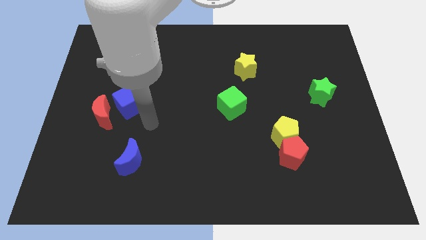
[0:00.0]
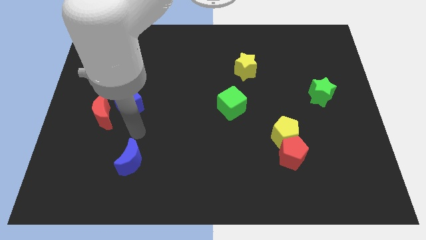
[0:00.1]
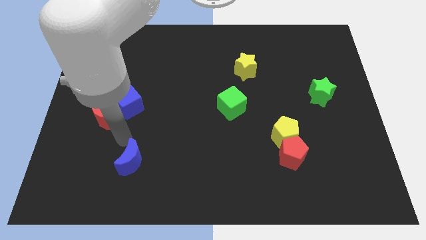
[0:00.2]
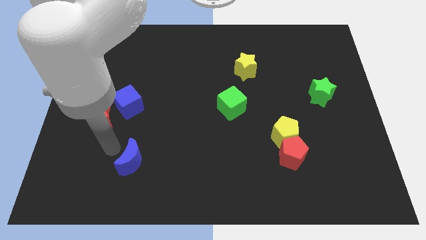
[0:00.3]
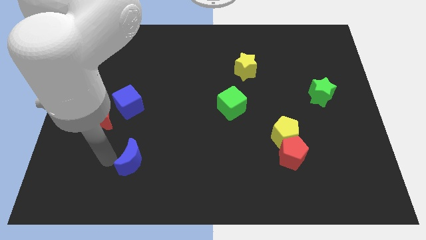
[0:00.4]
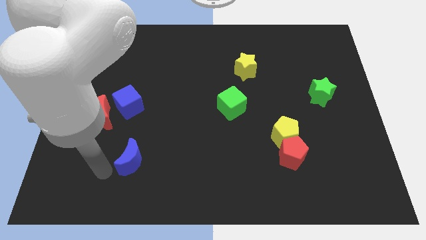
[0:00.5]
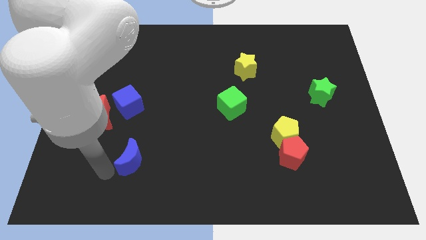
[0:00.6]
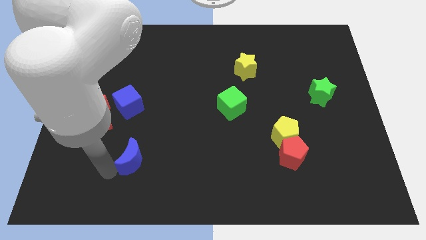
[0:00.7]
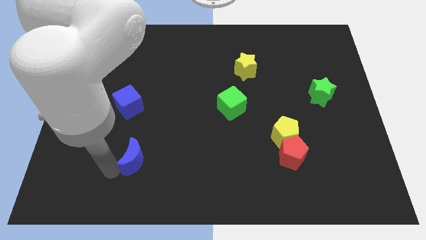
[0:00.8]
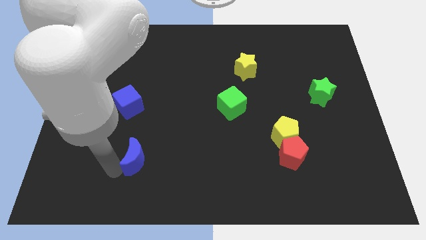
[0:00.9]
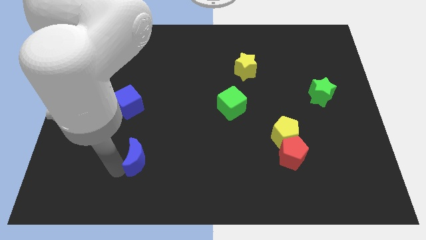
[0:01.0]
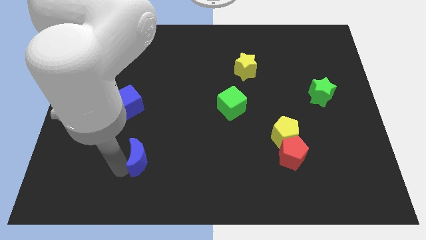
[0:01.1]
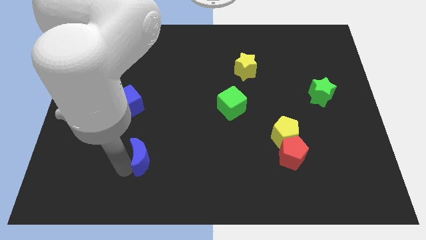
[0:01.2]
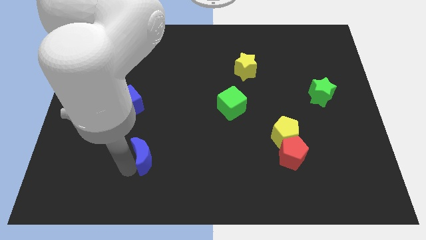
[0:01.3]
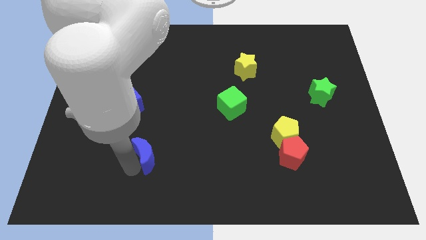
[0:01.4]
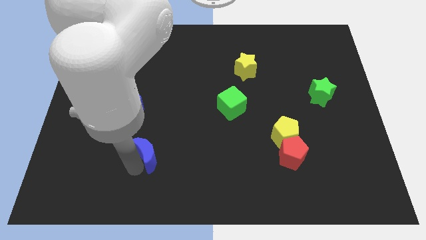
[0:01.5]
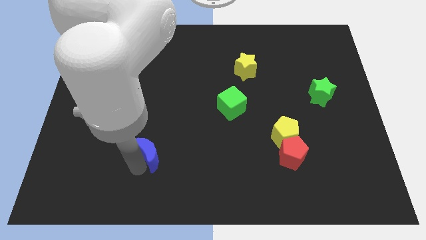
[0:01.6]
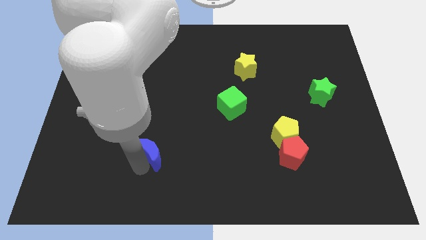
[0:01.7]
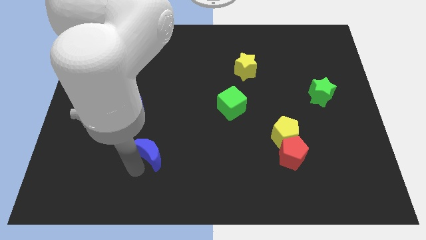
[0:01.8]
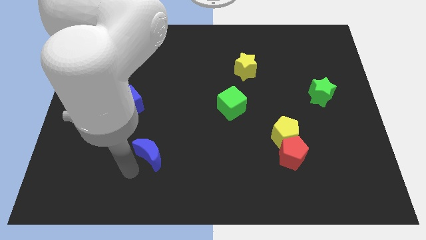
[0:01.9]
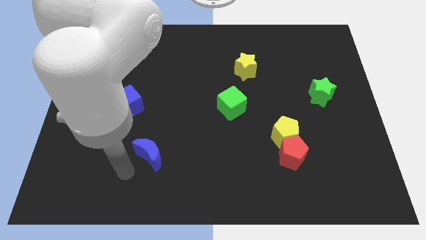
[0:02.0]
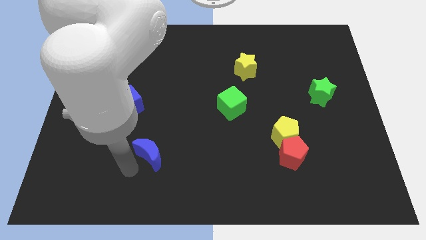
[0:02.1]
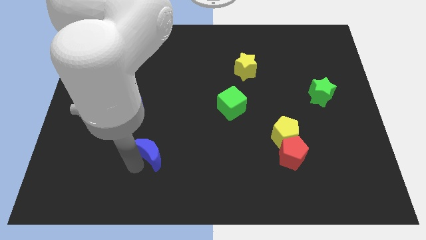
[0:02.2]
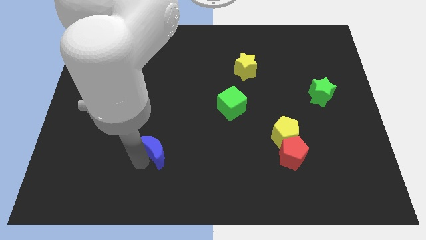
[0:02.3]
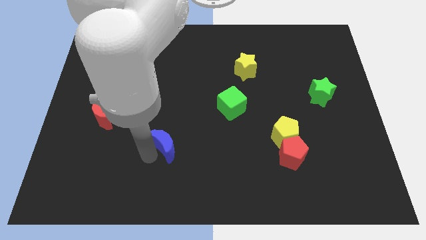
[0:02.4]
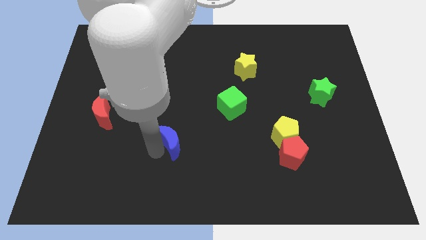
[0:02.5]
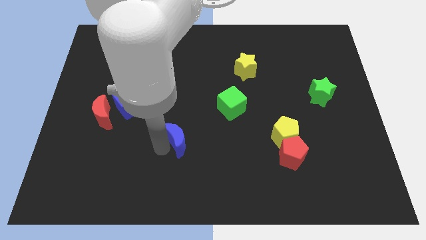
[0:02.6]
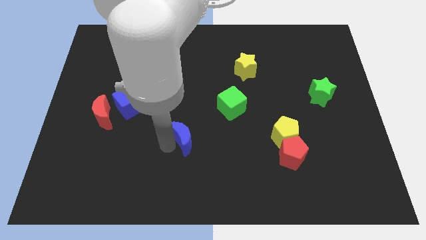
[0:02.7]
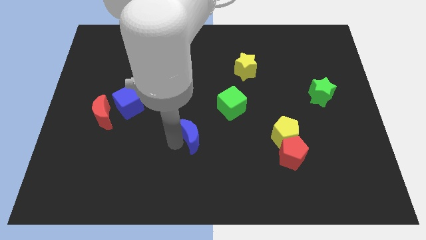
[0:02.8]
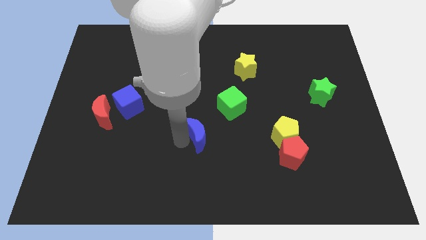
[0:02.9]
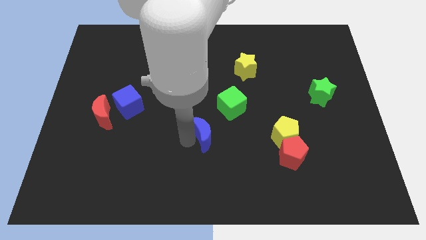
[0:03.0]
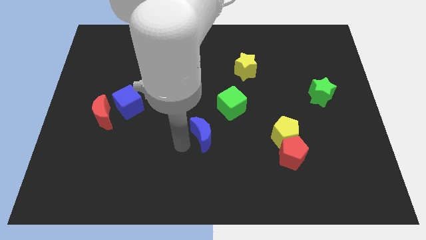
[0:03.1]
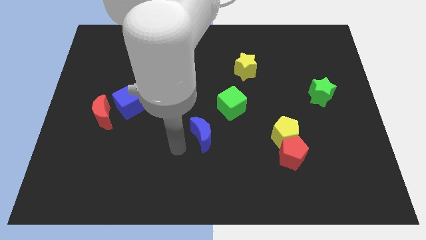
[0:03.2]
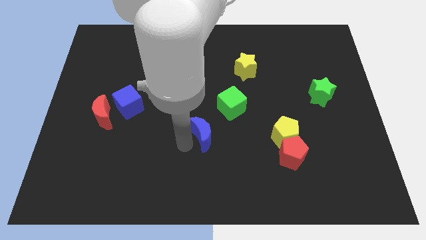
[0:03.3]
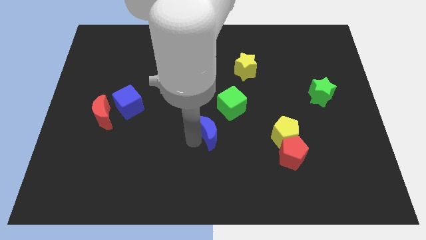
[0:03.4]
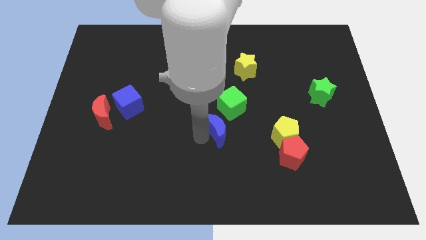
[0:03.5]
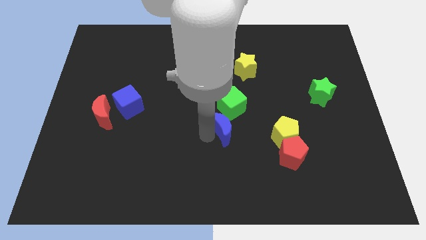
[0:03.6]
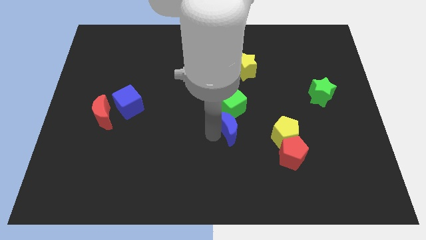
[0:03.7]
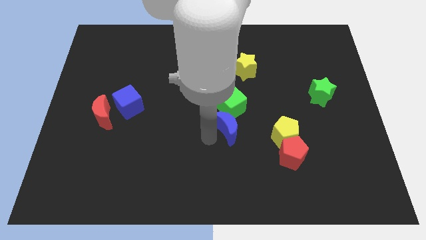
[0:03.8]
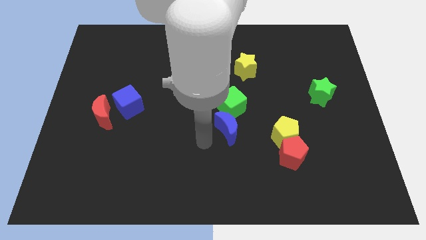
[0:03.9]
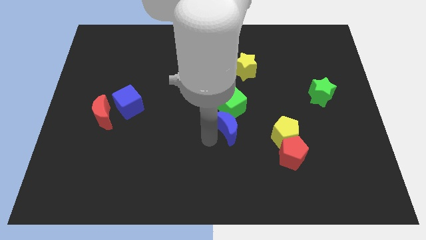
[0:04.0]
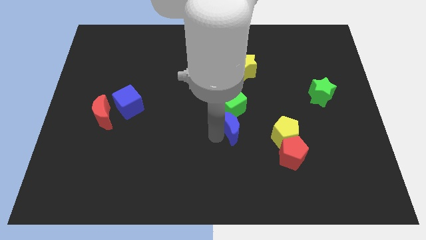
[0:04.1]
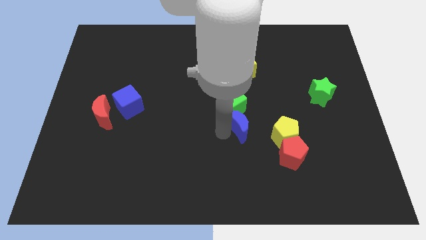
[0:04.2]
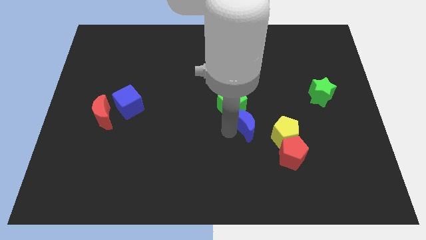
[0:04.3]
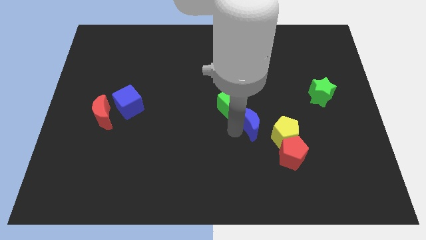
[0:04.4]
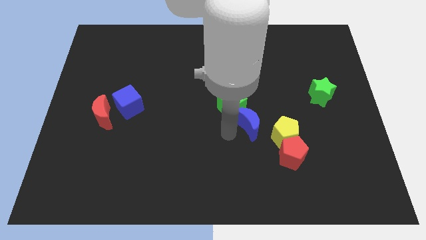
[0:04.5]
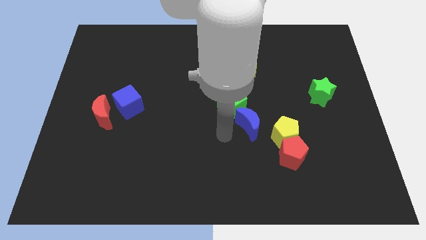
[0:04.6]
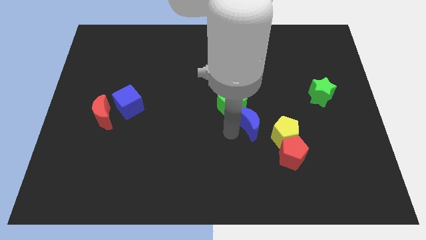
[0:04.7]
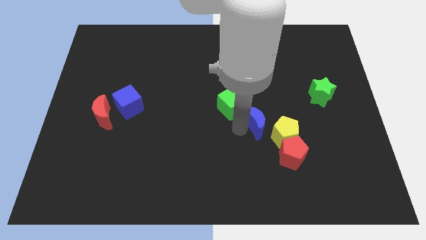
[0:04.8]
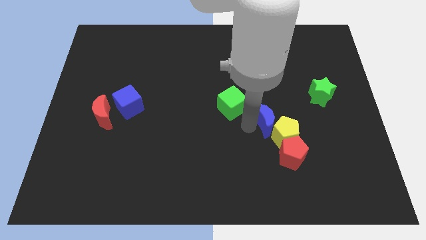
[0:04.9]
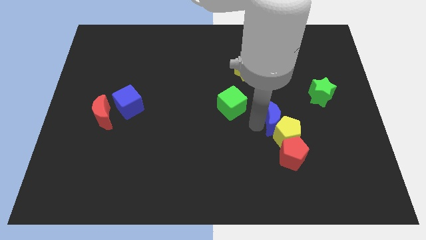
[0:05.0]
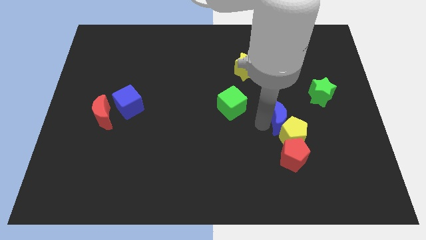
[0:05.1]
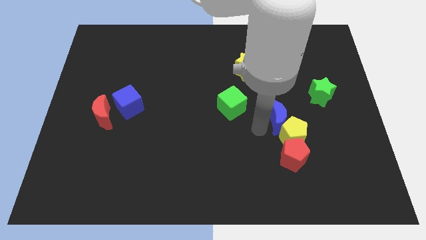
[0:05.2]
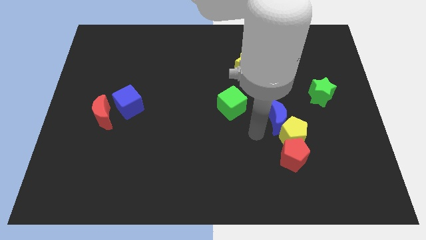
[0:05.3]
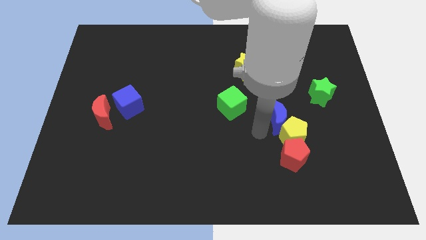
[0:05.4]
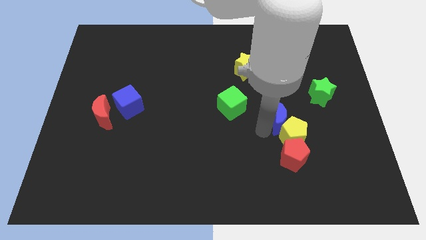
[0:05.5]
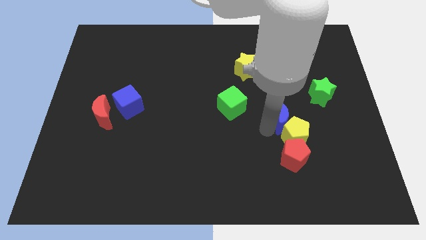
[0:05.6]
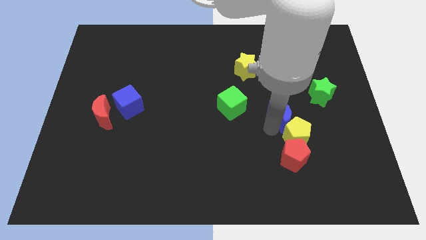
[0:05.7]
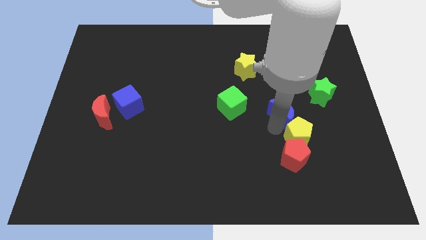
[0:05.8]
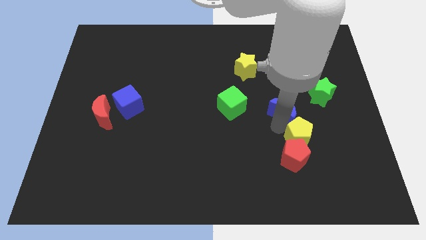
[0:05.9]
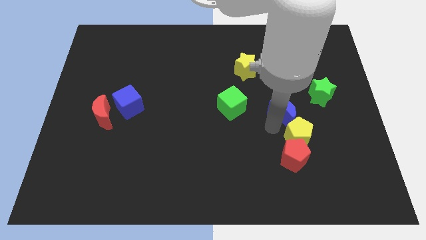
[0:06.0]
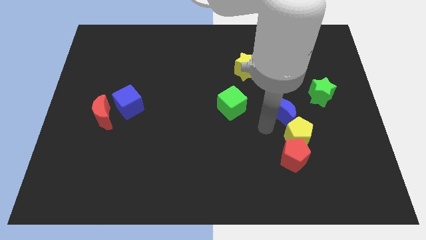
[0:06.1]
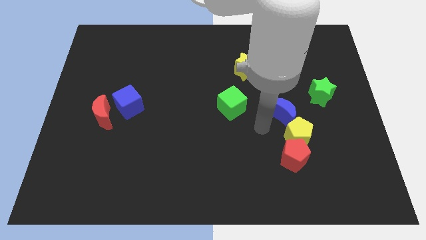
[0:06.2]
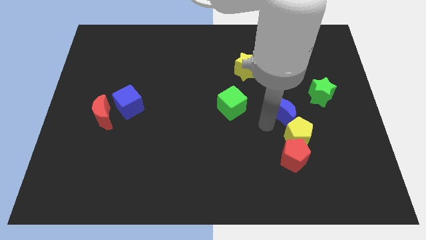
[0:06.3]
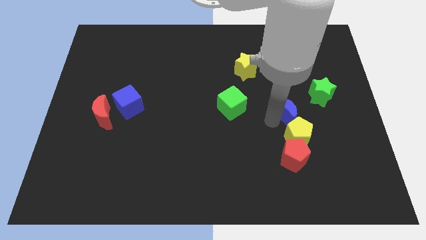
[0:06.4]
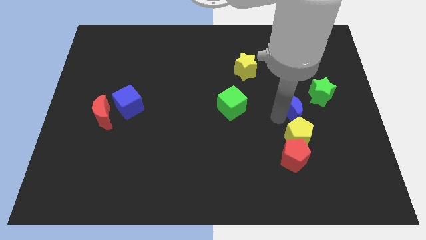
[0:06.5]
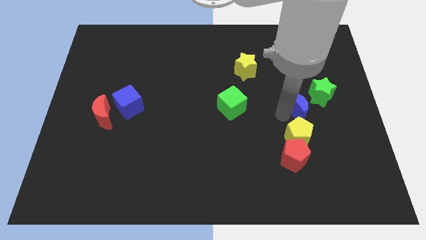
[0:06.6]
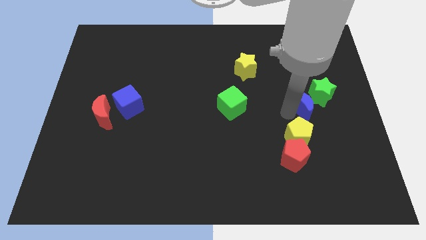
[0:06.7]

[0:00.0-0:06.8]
slide the blue moon towards the green star

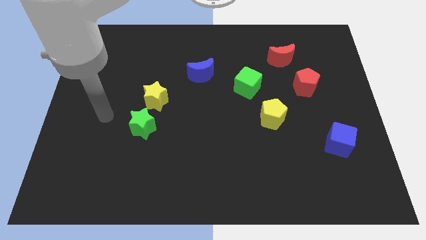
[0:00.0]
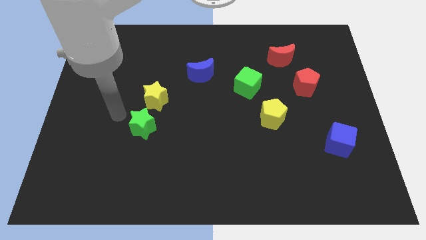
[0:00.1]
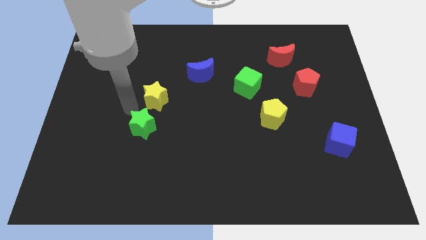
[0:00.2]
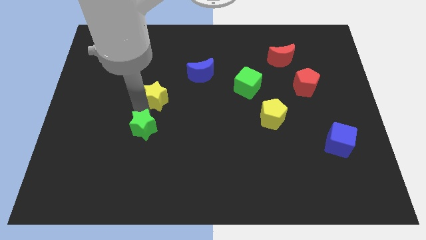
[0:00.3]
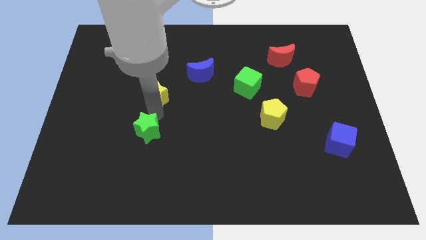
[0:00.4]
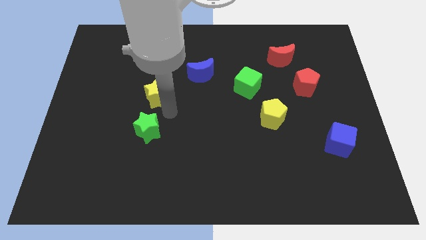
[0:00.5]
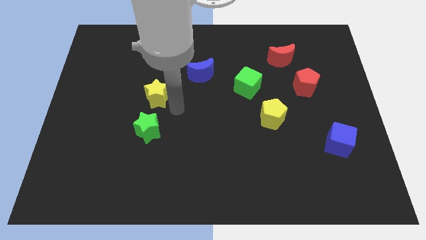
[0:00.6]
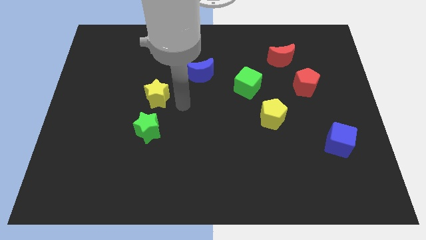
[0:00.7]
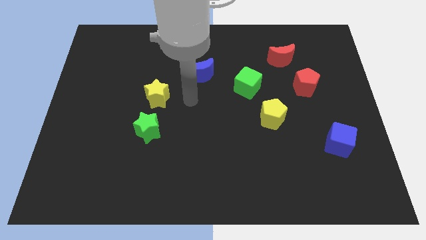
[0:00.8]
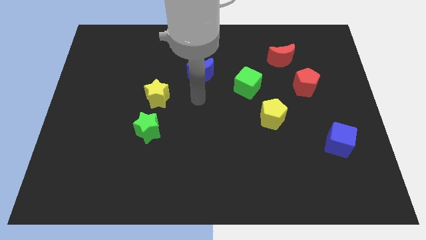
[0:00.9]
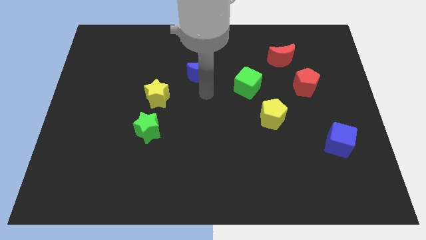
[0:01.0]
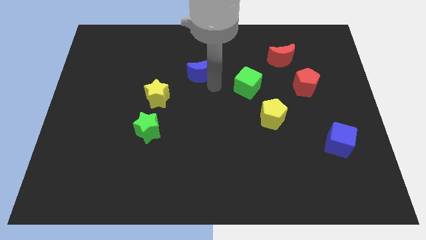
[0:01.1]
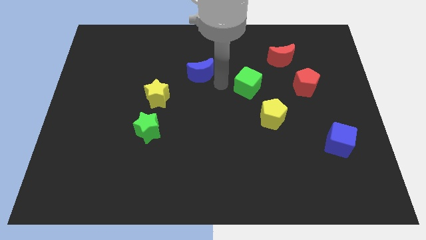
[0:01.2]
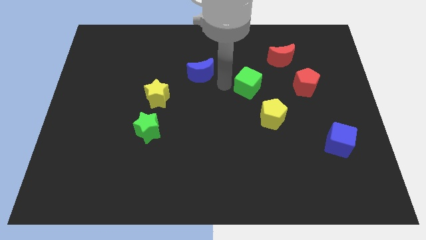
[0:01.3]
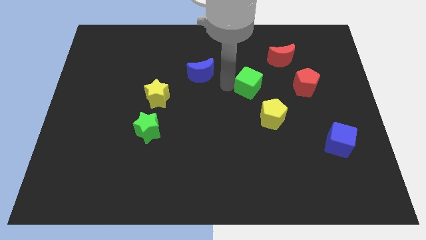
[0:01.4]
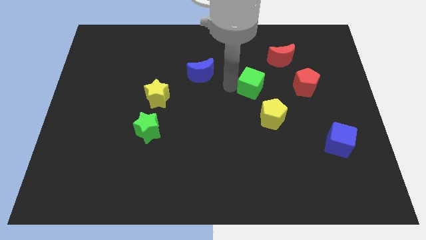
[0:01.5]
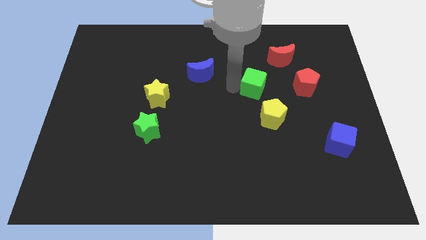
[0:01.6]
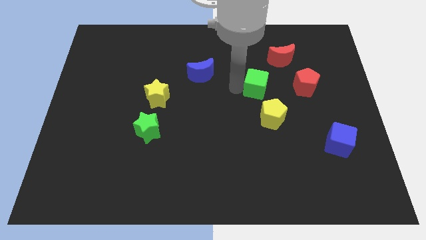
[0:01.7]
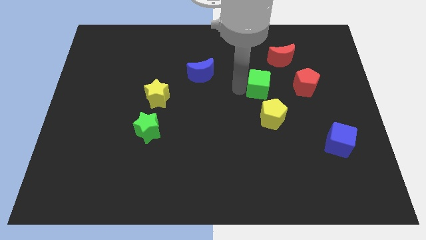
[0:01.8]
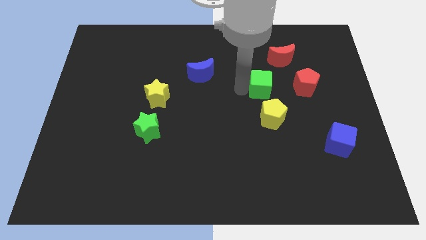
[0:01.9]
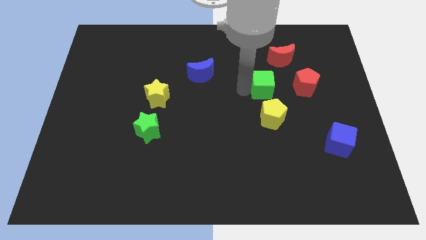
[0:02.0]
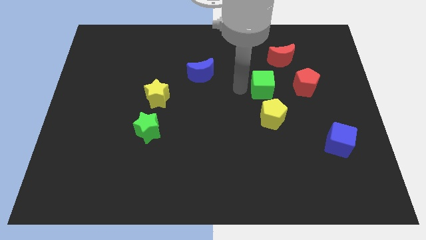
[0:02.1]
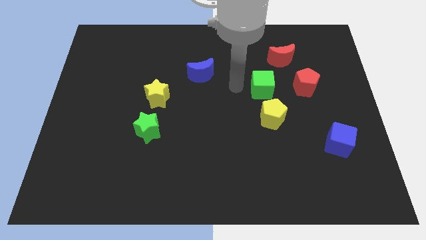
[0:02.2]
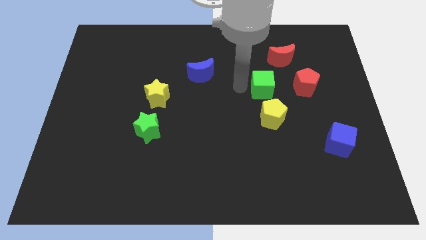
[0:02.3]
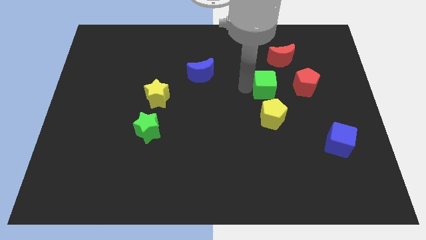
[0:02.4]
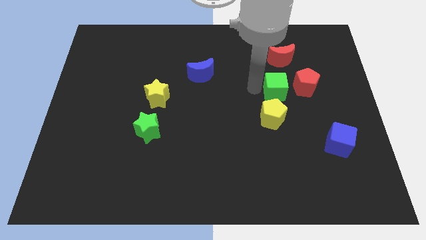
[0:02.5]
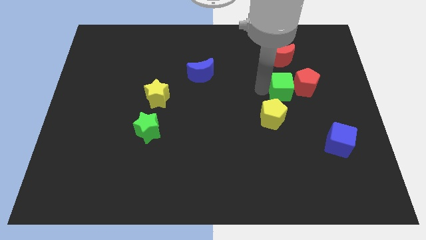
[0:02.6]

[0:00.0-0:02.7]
push the green cube towards the red pentagon
